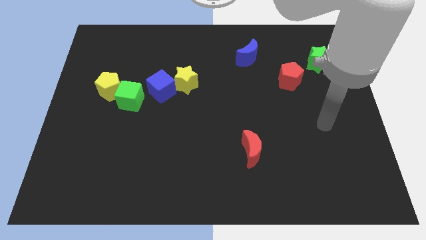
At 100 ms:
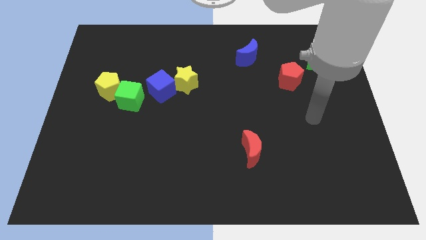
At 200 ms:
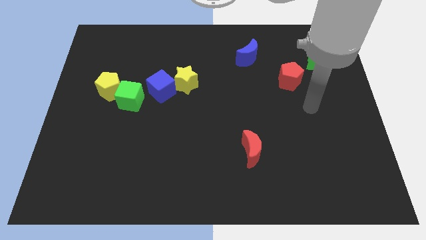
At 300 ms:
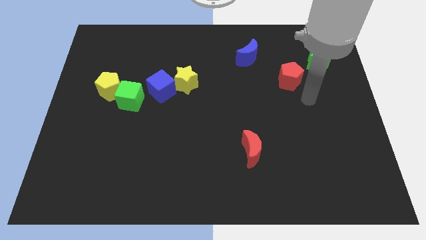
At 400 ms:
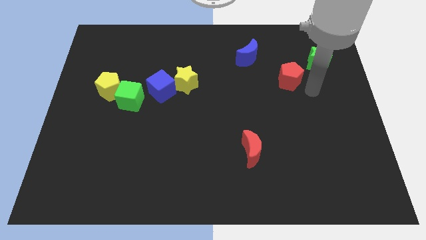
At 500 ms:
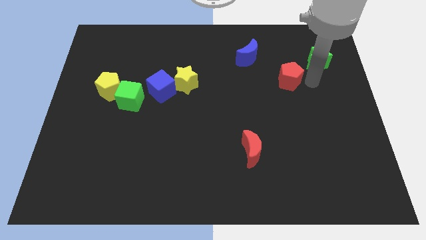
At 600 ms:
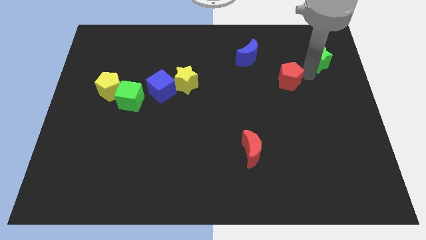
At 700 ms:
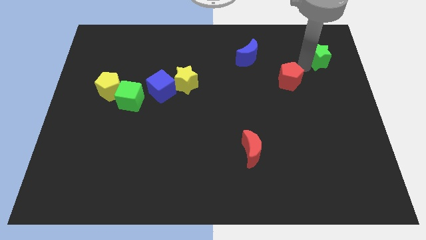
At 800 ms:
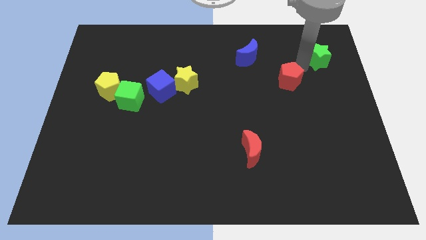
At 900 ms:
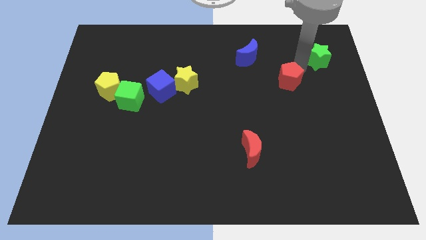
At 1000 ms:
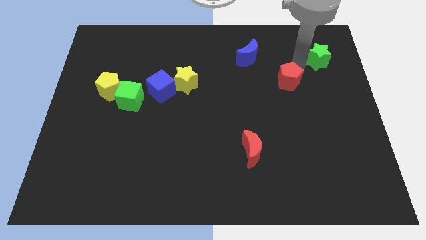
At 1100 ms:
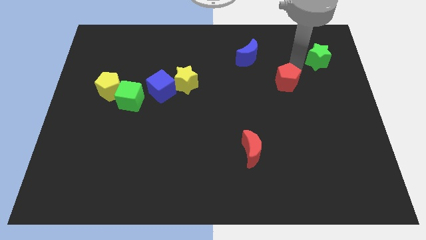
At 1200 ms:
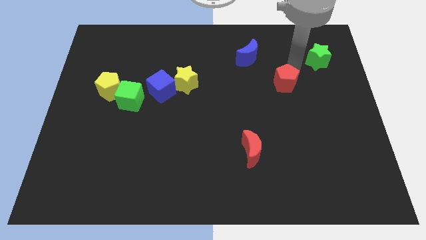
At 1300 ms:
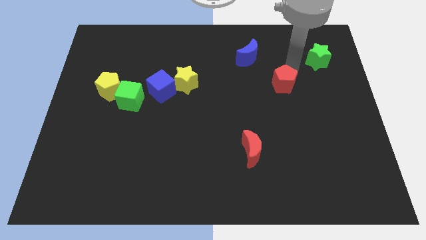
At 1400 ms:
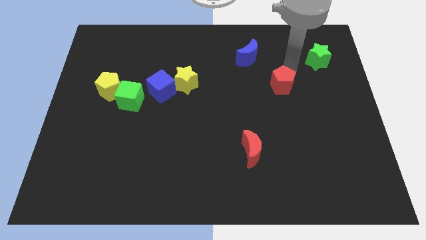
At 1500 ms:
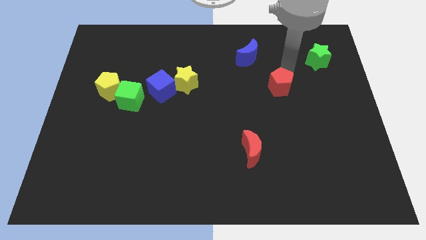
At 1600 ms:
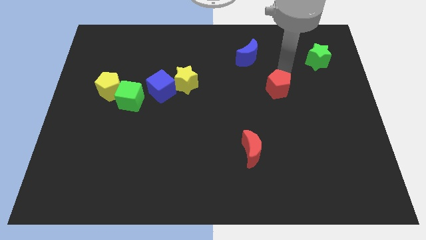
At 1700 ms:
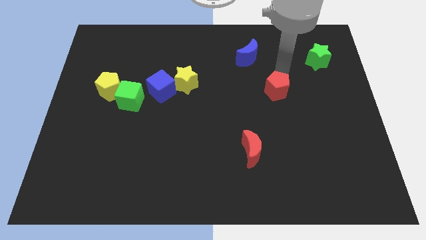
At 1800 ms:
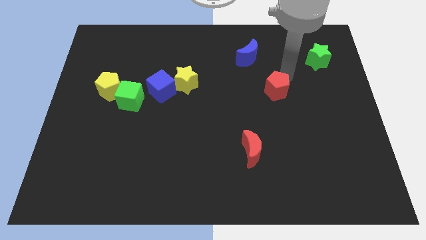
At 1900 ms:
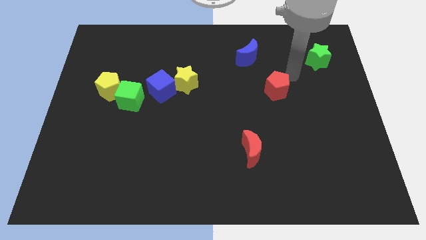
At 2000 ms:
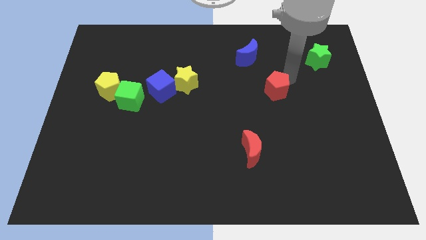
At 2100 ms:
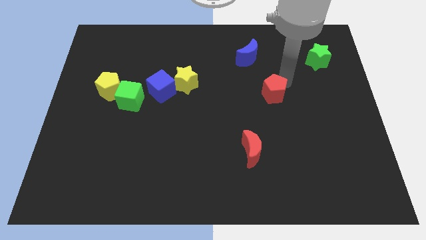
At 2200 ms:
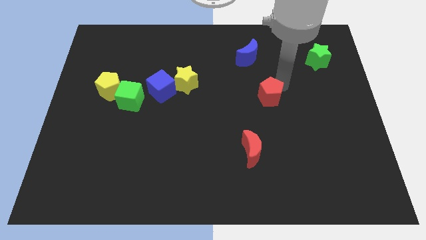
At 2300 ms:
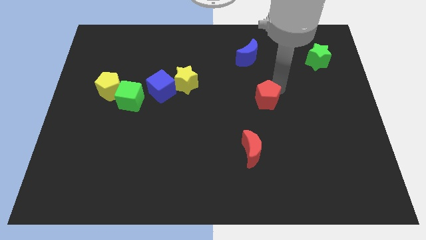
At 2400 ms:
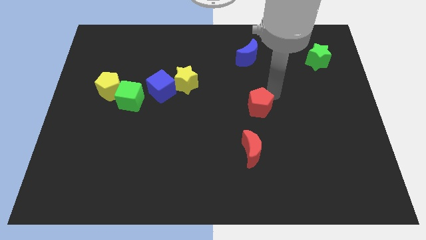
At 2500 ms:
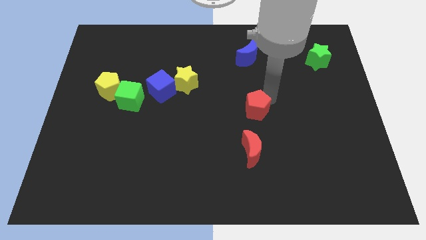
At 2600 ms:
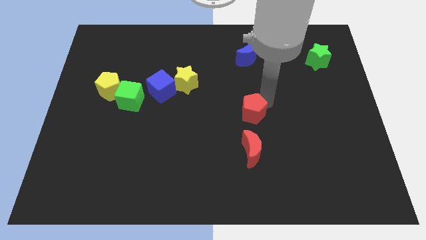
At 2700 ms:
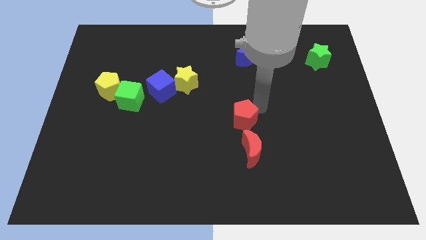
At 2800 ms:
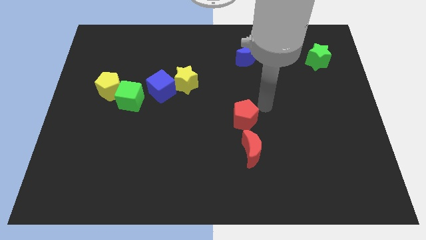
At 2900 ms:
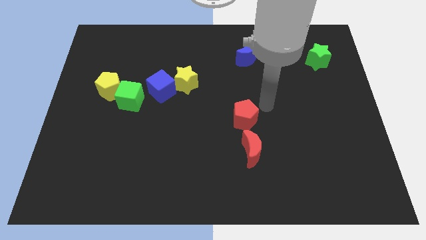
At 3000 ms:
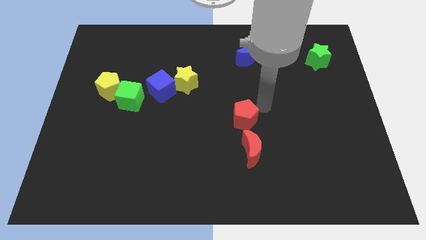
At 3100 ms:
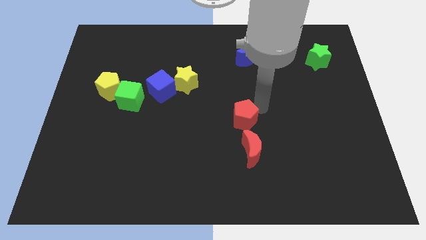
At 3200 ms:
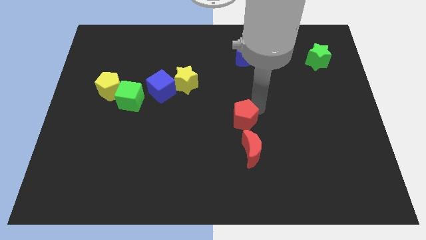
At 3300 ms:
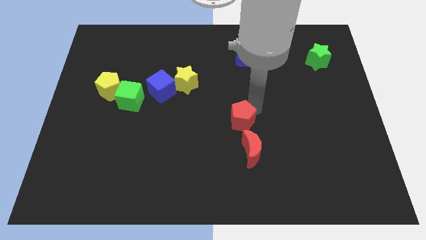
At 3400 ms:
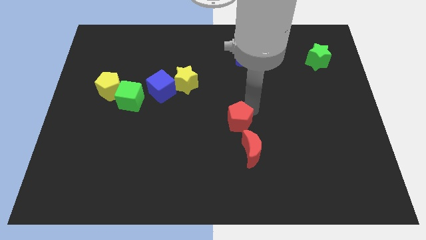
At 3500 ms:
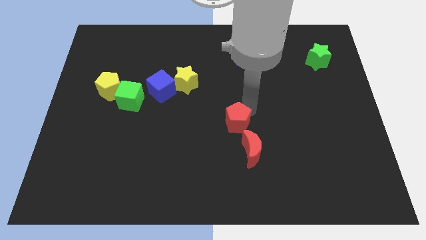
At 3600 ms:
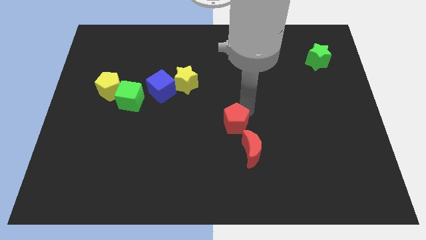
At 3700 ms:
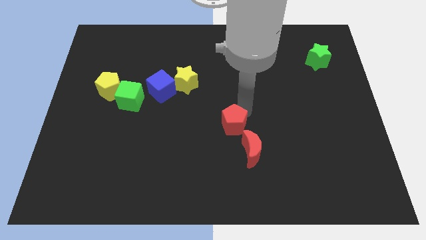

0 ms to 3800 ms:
slide the red pentagon downwards and to the left

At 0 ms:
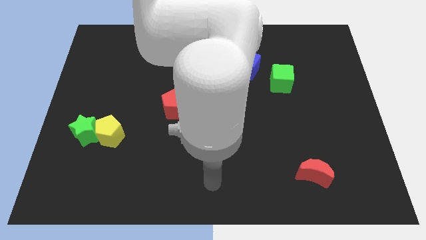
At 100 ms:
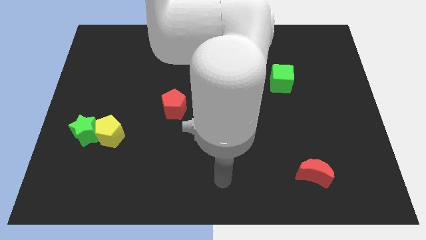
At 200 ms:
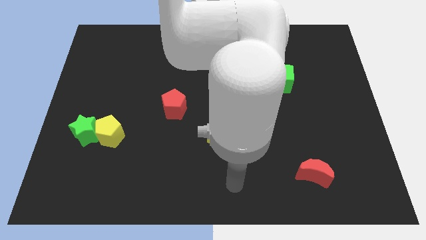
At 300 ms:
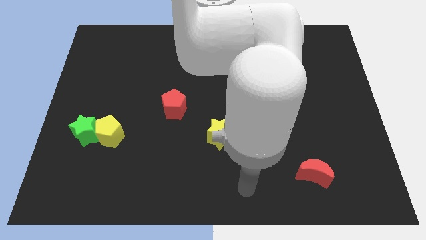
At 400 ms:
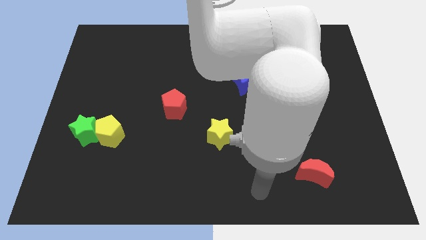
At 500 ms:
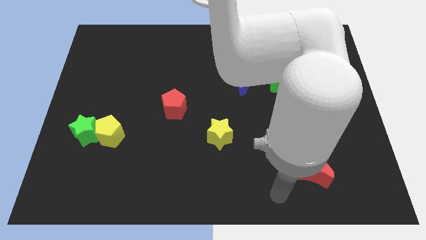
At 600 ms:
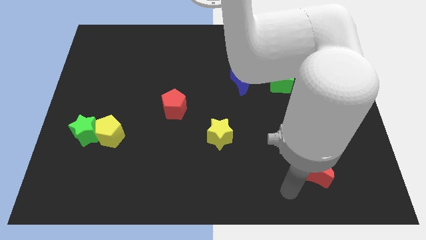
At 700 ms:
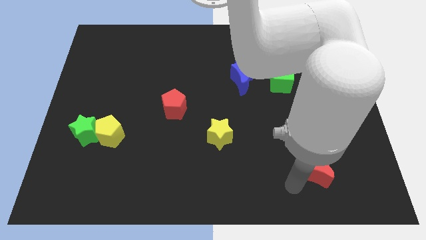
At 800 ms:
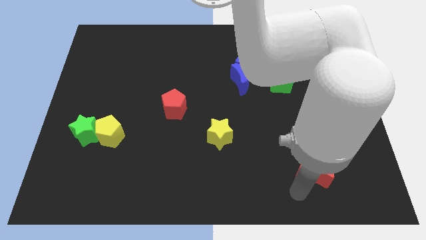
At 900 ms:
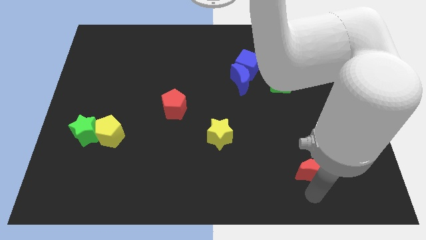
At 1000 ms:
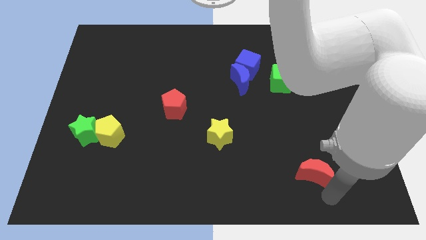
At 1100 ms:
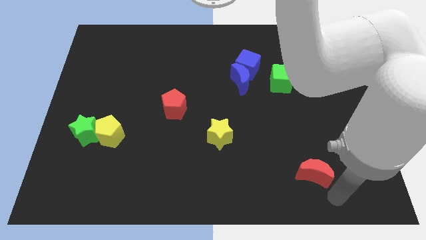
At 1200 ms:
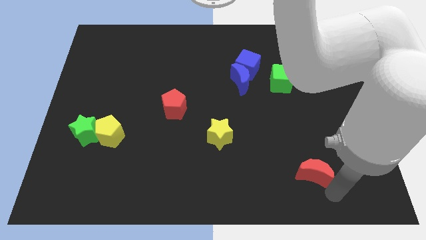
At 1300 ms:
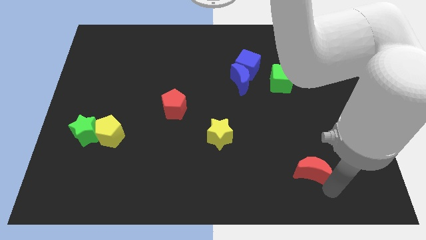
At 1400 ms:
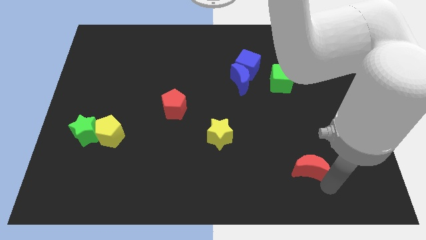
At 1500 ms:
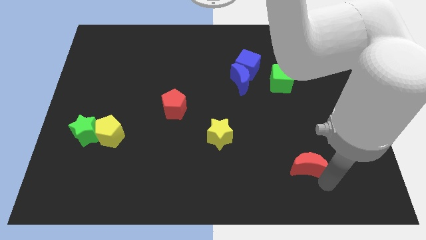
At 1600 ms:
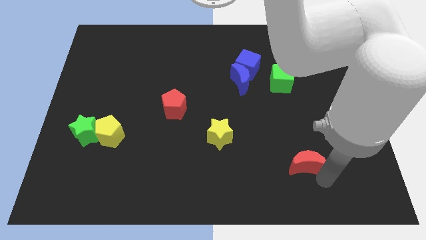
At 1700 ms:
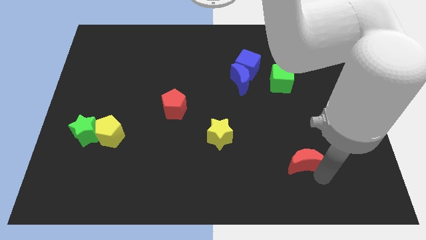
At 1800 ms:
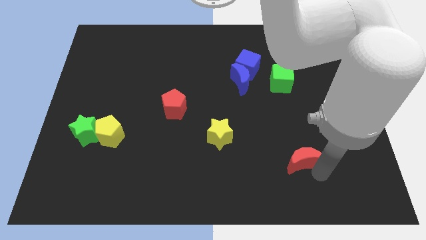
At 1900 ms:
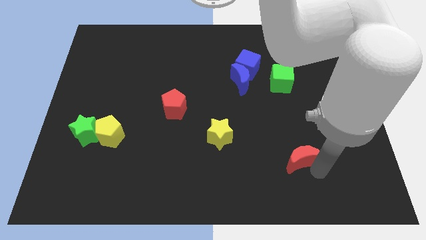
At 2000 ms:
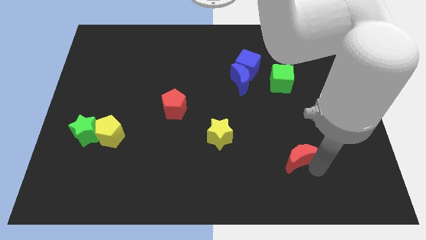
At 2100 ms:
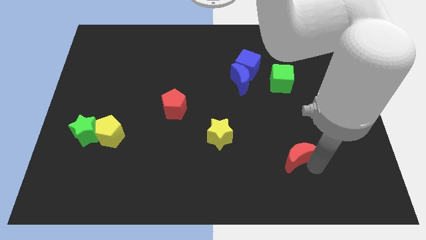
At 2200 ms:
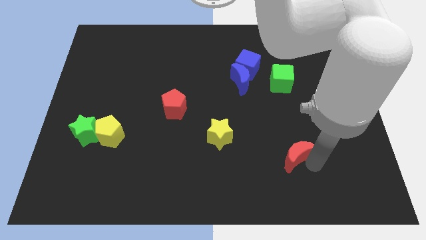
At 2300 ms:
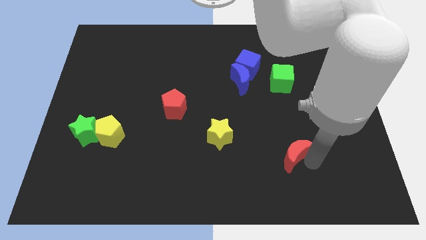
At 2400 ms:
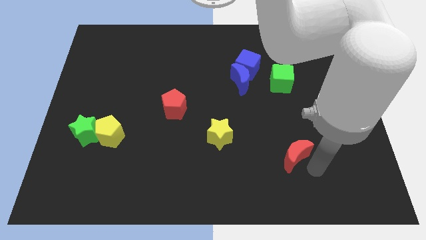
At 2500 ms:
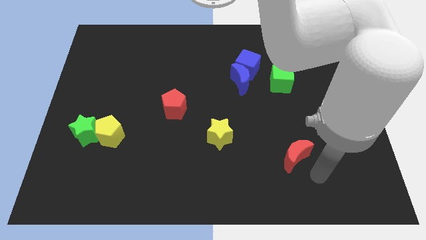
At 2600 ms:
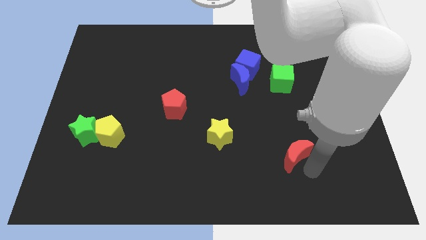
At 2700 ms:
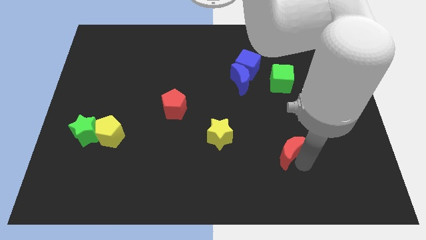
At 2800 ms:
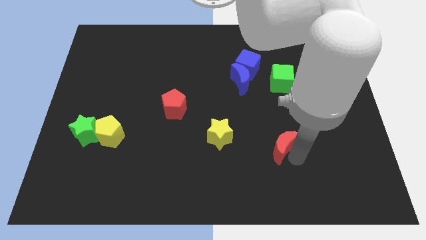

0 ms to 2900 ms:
slide the red moon diagonally upwards and to the left a little bit

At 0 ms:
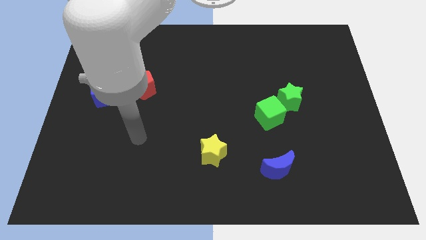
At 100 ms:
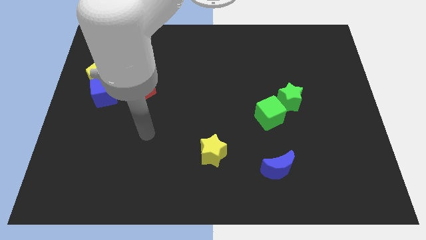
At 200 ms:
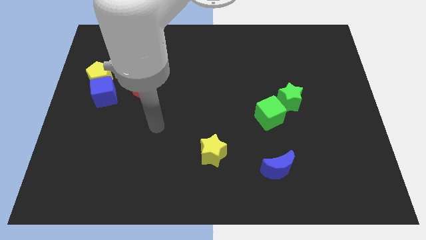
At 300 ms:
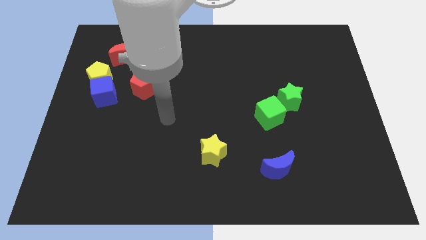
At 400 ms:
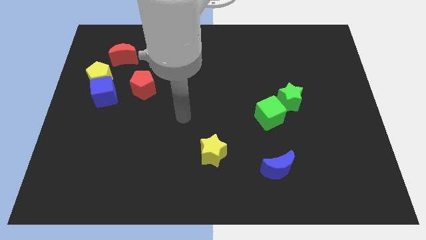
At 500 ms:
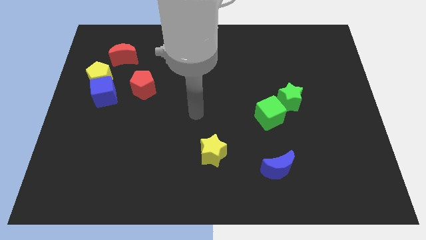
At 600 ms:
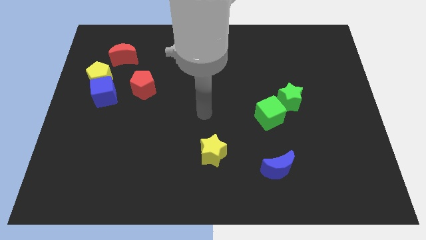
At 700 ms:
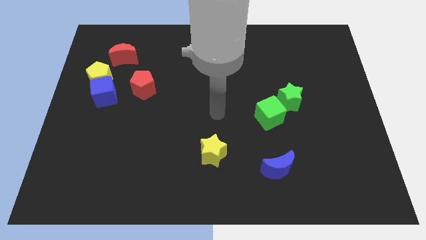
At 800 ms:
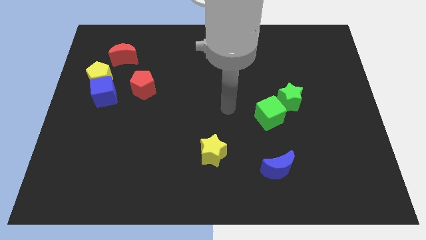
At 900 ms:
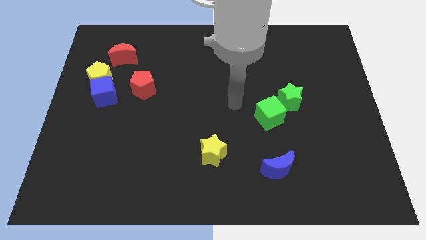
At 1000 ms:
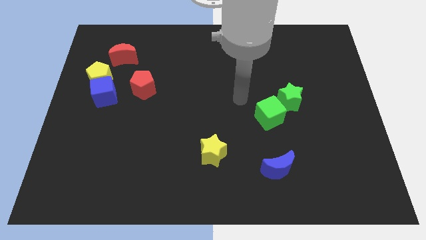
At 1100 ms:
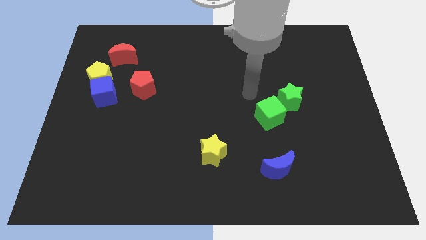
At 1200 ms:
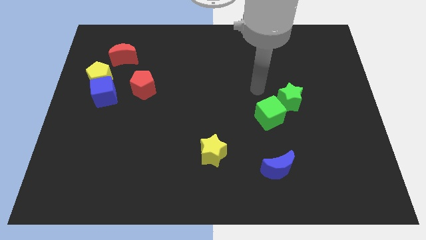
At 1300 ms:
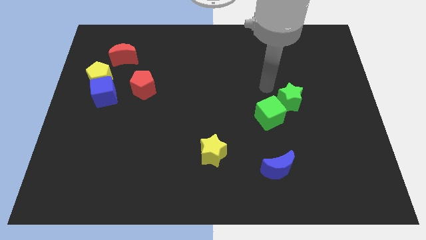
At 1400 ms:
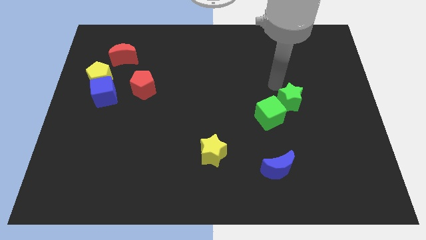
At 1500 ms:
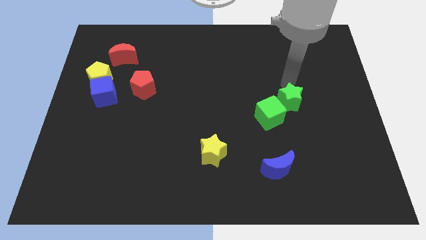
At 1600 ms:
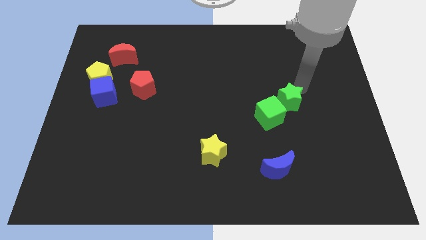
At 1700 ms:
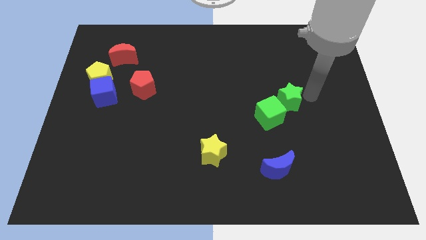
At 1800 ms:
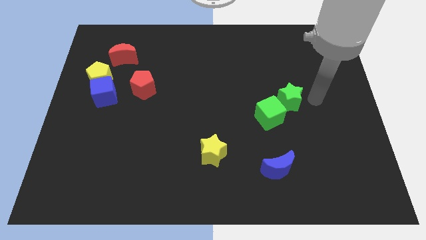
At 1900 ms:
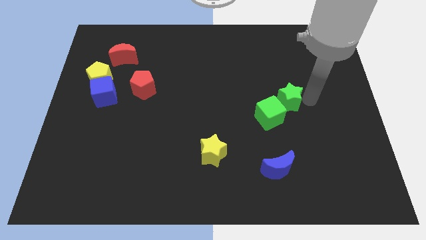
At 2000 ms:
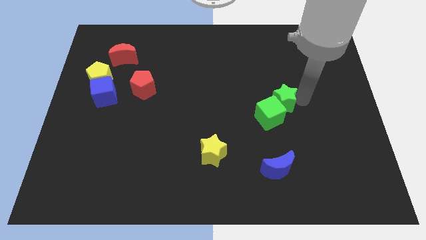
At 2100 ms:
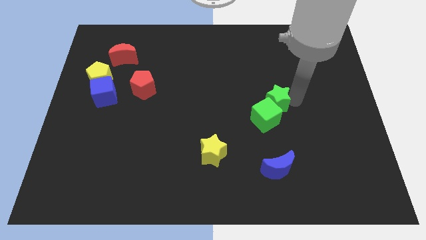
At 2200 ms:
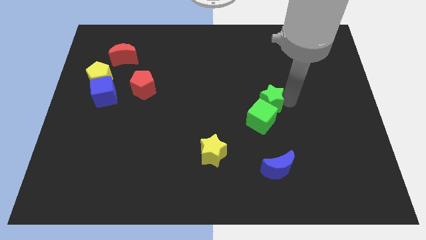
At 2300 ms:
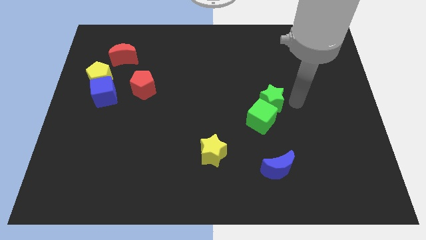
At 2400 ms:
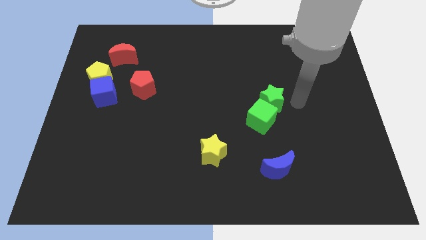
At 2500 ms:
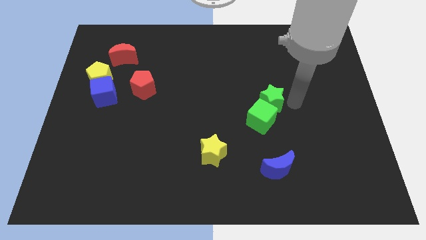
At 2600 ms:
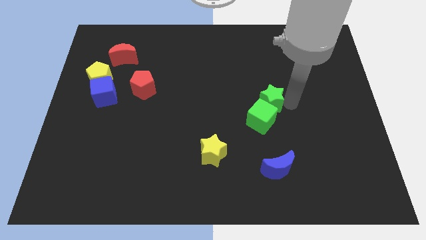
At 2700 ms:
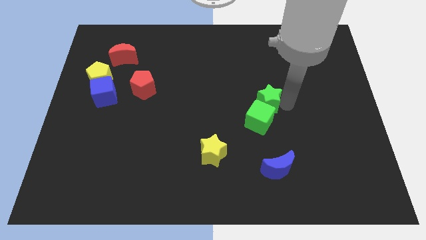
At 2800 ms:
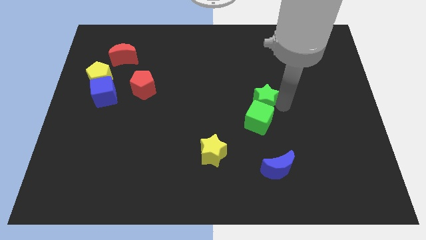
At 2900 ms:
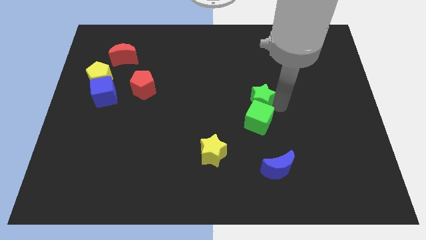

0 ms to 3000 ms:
slide the green star a bit left
